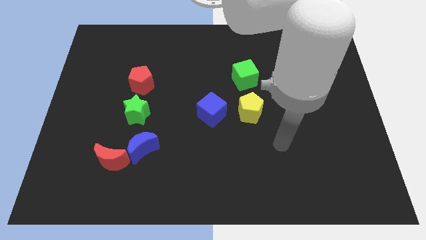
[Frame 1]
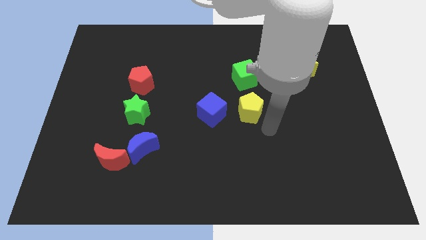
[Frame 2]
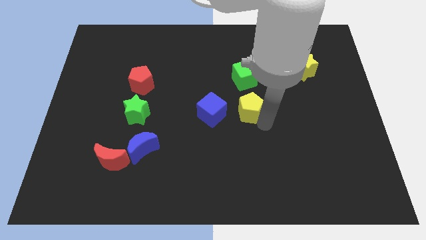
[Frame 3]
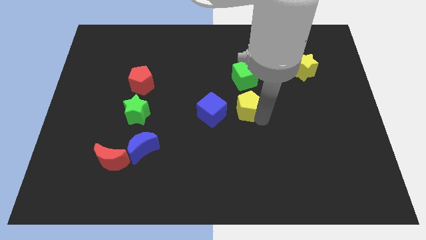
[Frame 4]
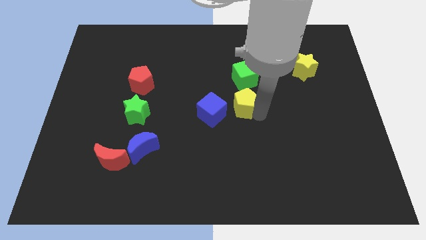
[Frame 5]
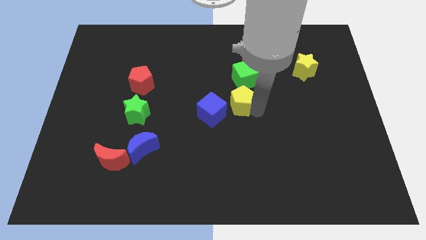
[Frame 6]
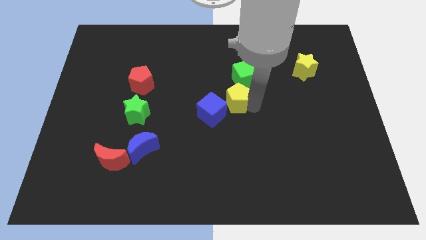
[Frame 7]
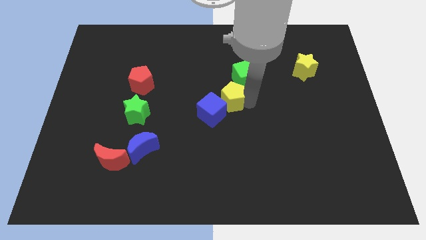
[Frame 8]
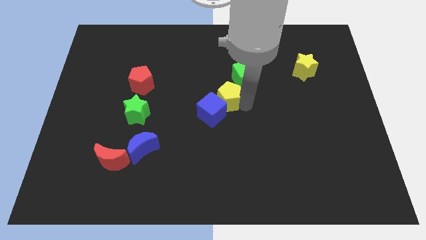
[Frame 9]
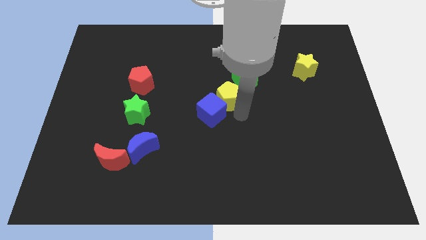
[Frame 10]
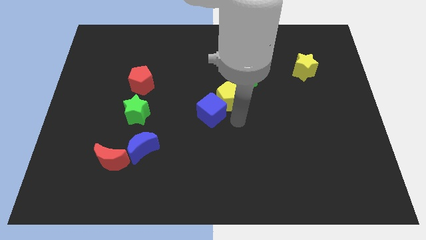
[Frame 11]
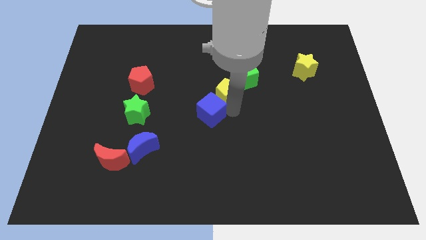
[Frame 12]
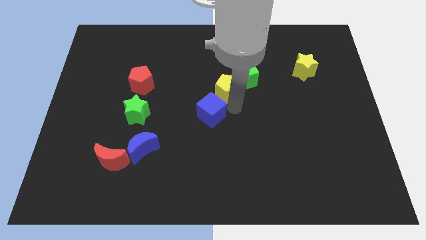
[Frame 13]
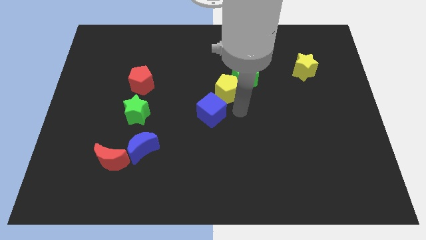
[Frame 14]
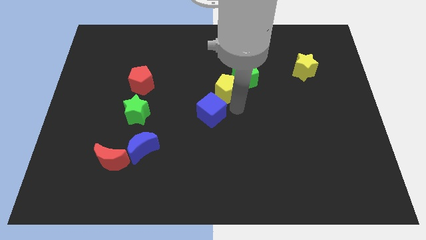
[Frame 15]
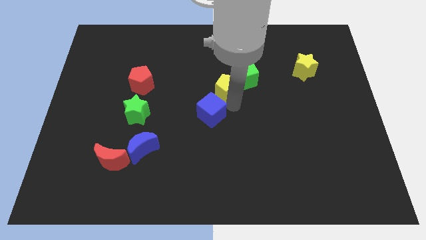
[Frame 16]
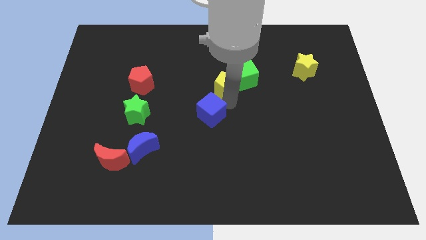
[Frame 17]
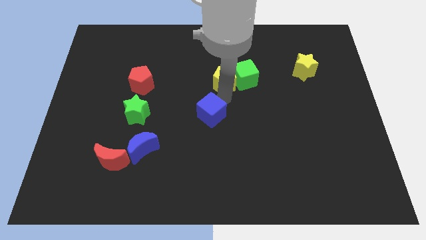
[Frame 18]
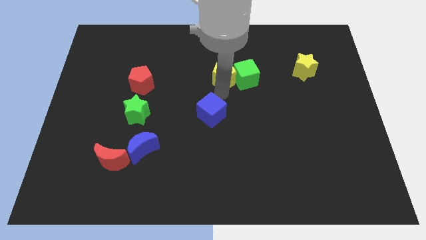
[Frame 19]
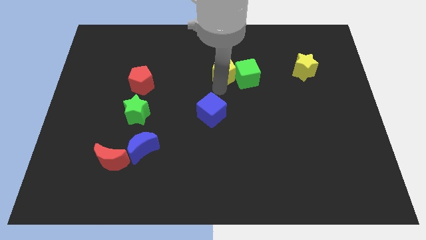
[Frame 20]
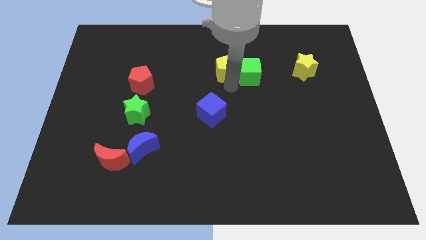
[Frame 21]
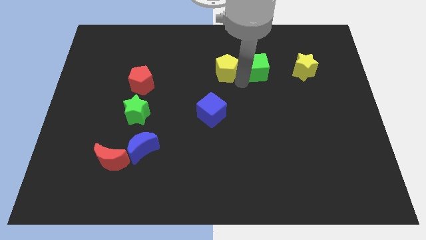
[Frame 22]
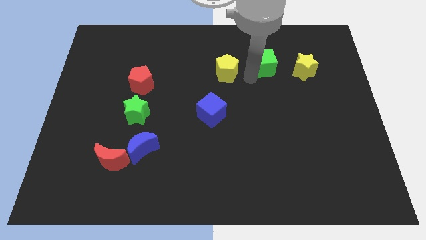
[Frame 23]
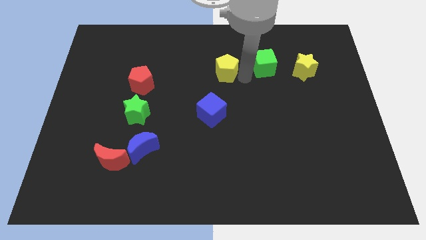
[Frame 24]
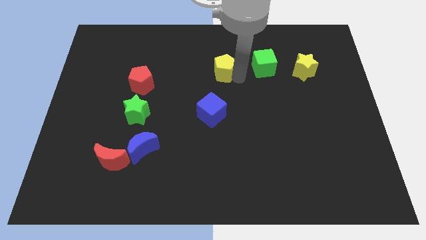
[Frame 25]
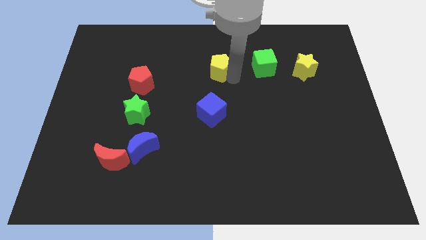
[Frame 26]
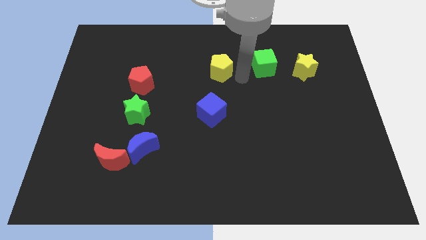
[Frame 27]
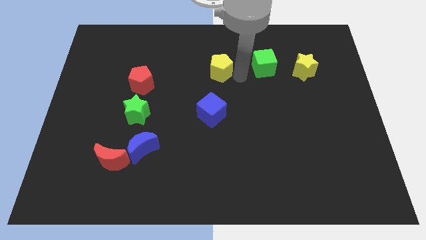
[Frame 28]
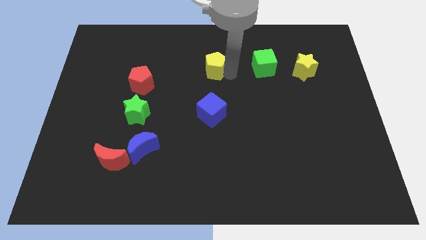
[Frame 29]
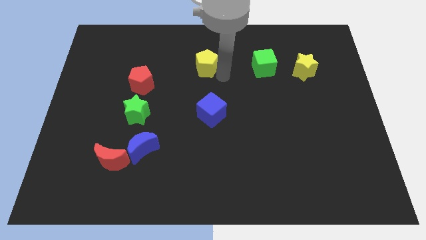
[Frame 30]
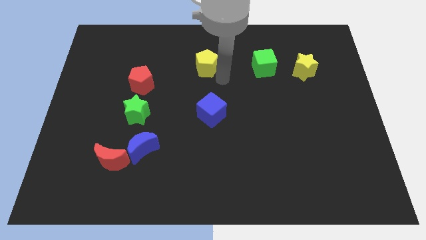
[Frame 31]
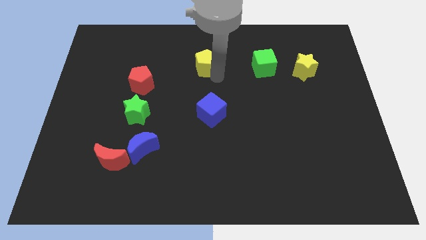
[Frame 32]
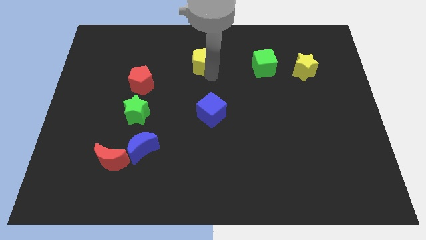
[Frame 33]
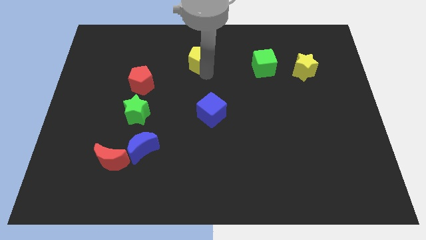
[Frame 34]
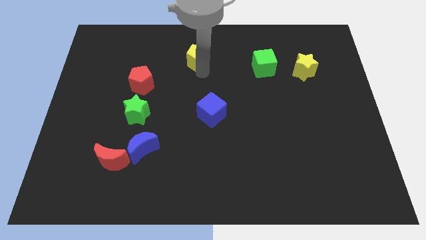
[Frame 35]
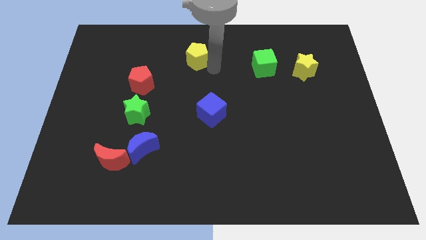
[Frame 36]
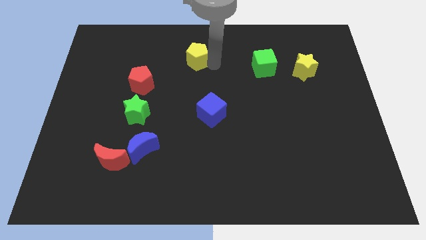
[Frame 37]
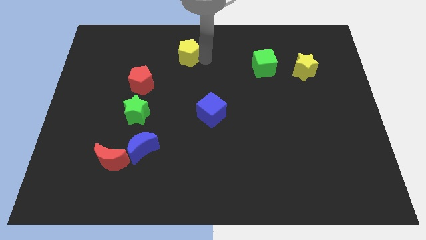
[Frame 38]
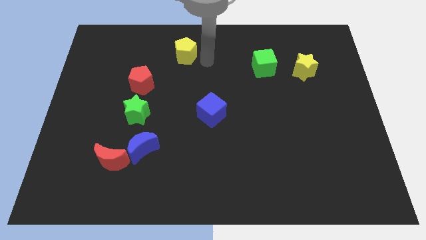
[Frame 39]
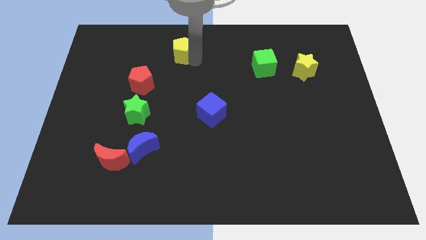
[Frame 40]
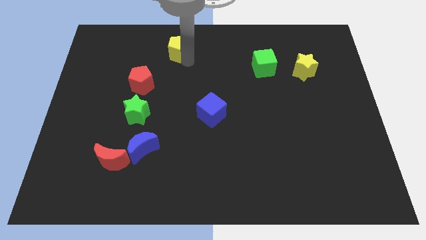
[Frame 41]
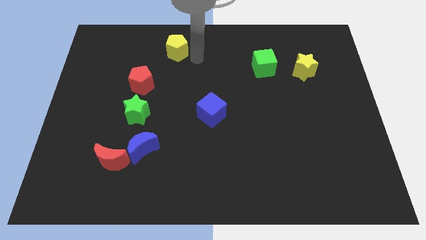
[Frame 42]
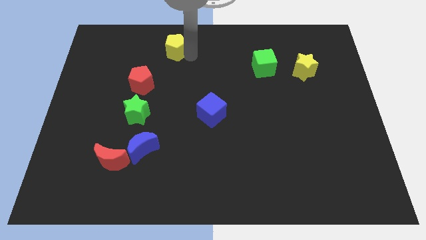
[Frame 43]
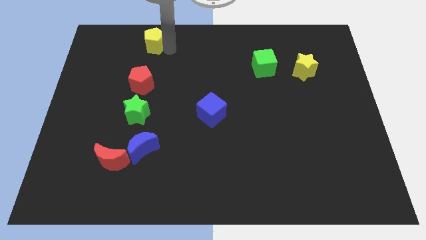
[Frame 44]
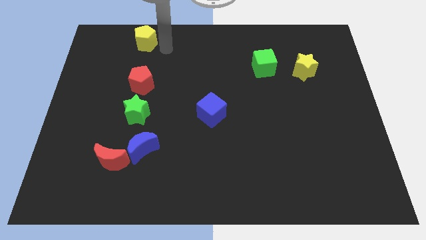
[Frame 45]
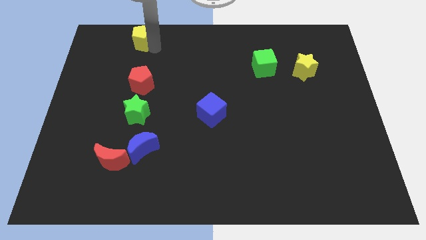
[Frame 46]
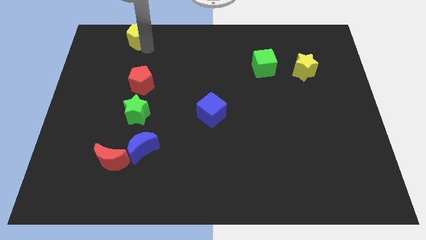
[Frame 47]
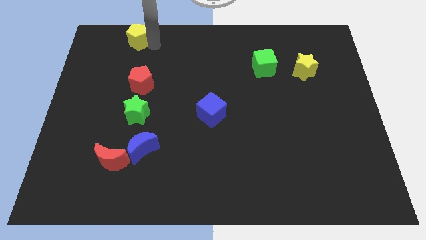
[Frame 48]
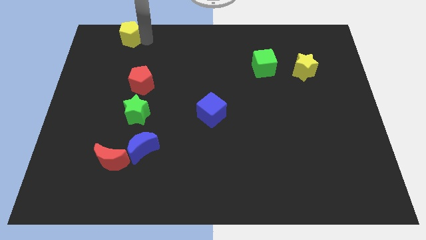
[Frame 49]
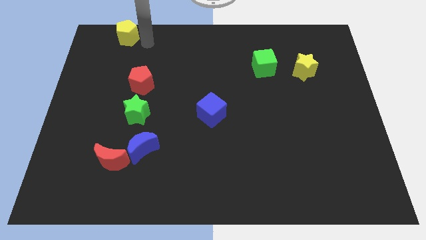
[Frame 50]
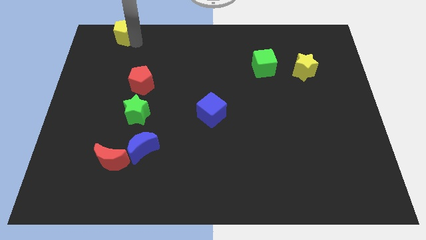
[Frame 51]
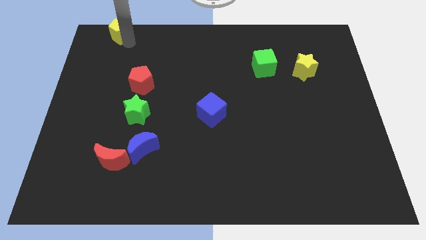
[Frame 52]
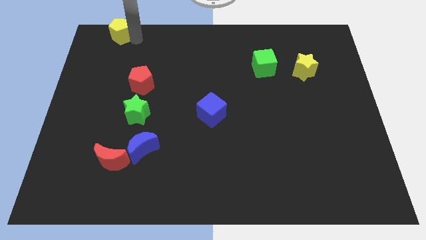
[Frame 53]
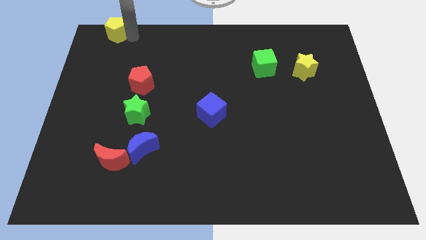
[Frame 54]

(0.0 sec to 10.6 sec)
slide the yellow pentagon to the top left of the board

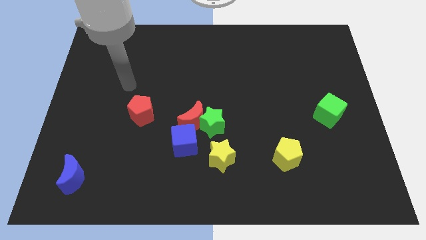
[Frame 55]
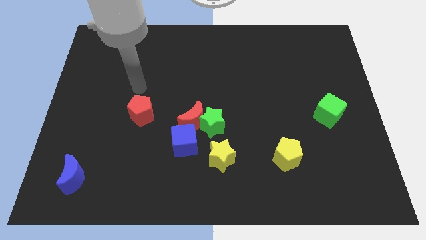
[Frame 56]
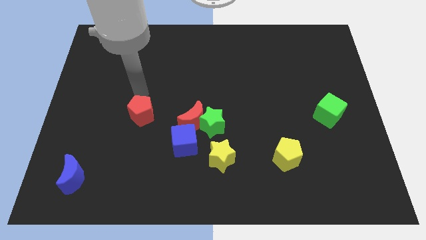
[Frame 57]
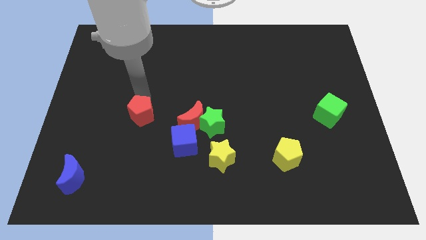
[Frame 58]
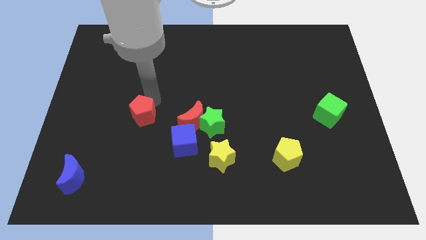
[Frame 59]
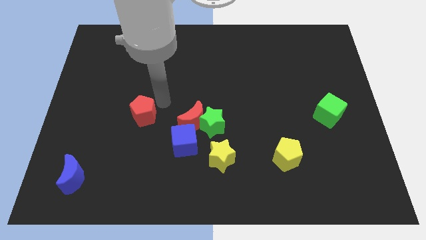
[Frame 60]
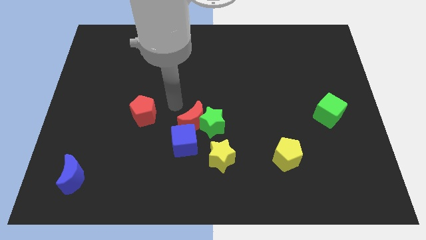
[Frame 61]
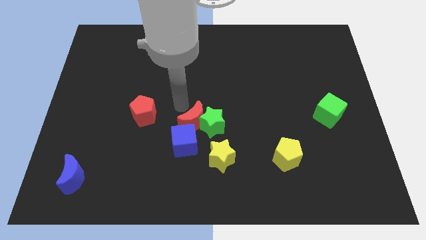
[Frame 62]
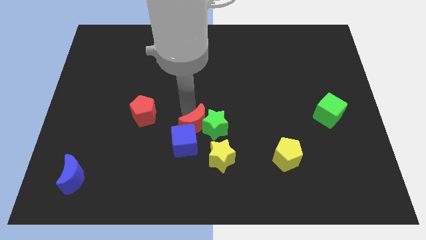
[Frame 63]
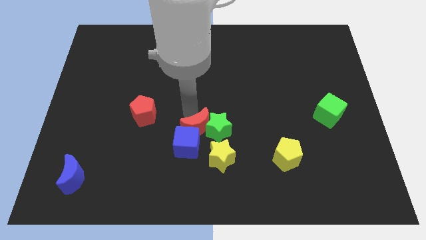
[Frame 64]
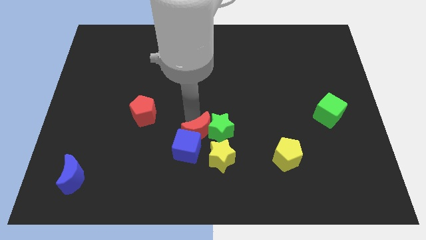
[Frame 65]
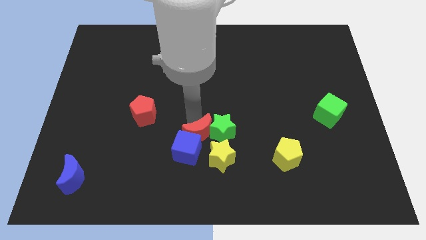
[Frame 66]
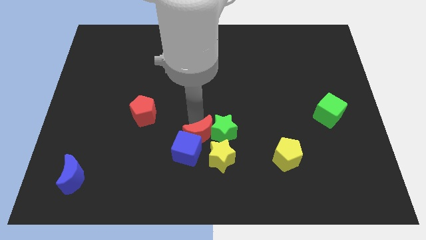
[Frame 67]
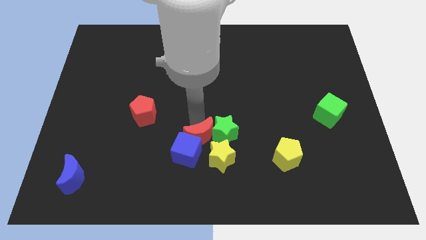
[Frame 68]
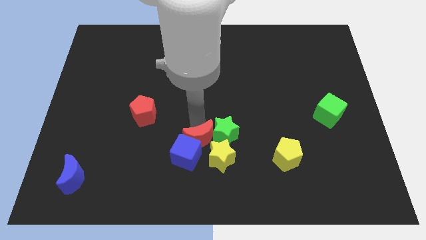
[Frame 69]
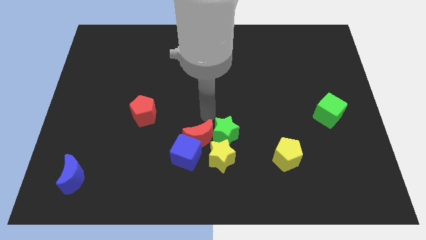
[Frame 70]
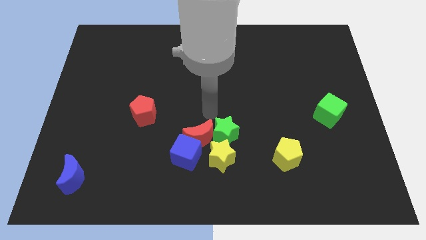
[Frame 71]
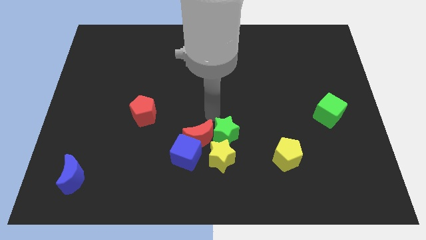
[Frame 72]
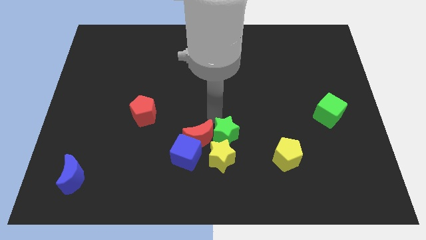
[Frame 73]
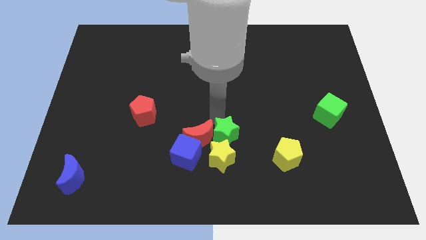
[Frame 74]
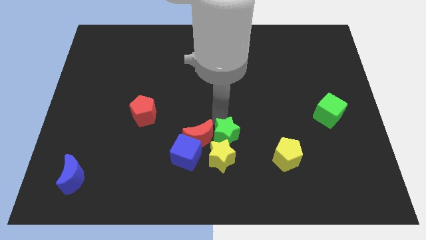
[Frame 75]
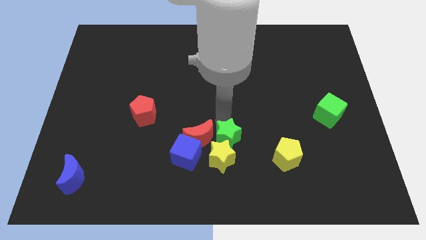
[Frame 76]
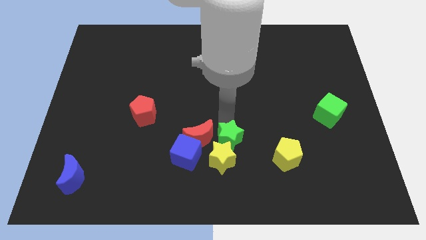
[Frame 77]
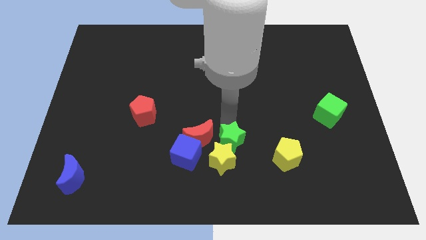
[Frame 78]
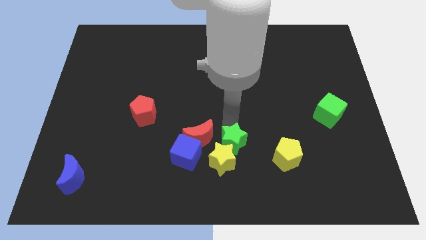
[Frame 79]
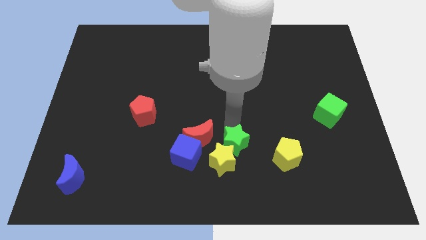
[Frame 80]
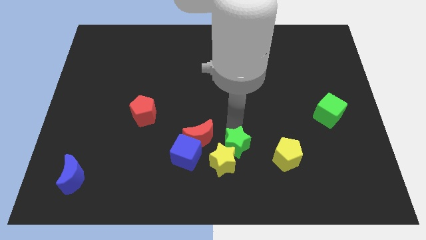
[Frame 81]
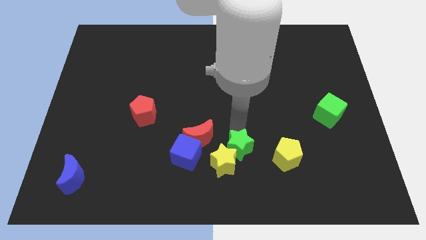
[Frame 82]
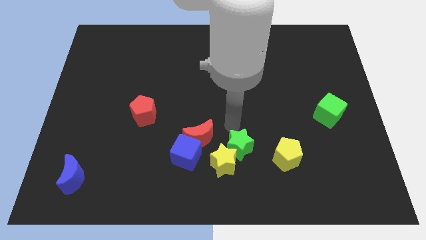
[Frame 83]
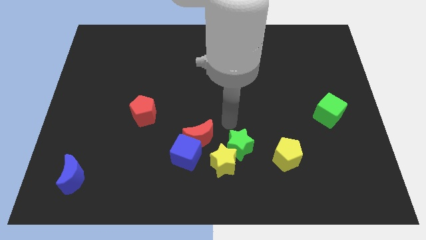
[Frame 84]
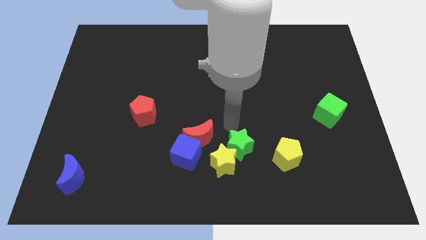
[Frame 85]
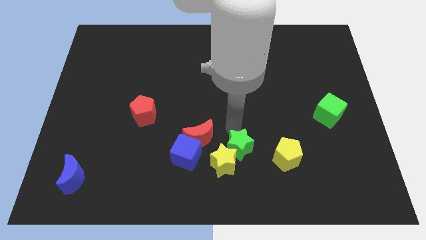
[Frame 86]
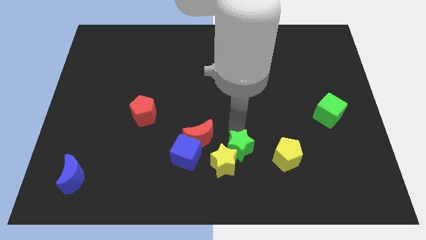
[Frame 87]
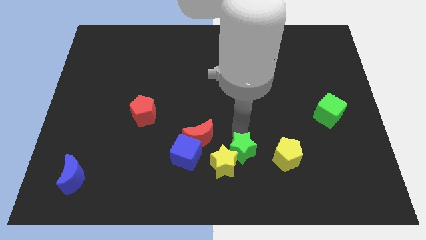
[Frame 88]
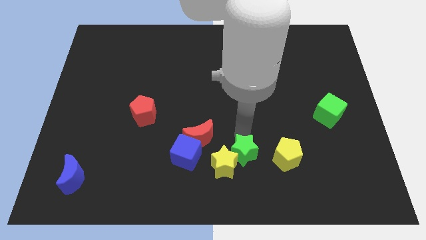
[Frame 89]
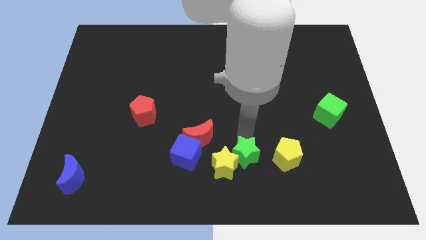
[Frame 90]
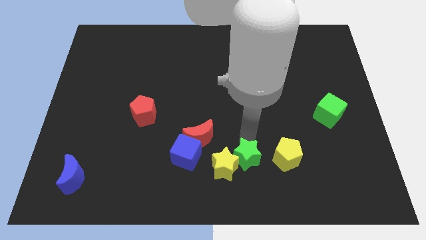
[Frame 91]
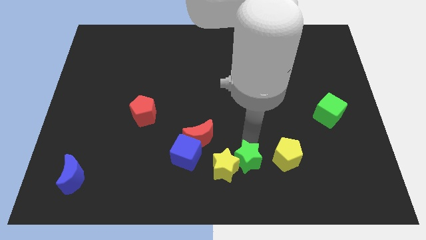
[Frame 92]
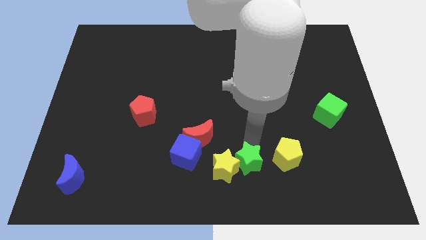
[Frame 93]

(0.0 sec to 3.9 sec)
put the green star to the bottom
